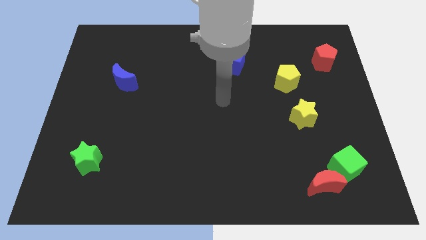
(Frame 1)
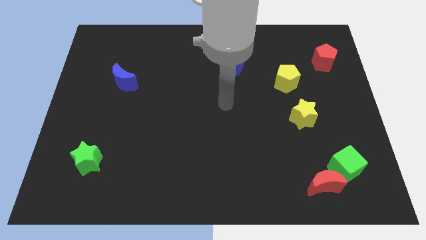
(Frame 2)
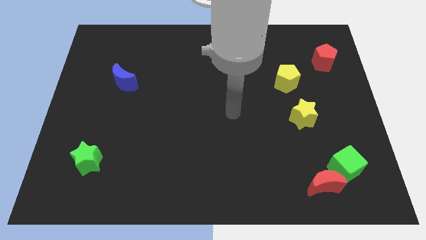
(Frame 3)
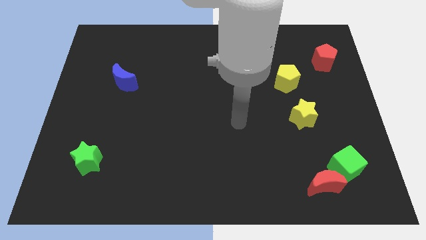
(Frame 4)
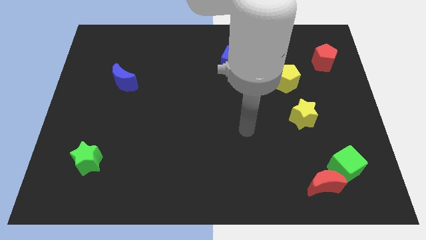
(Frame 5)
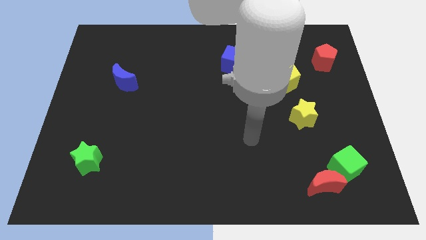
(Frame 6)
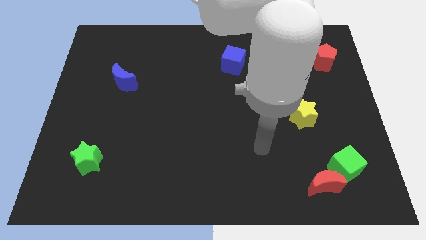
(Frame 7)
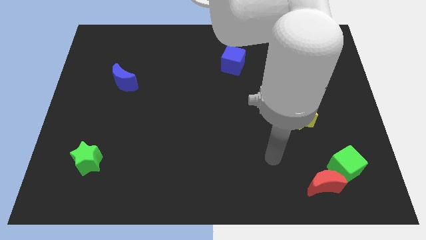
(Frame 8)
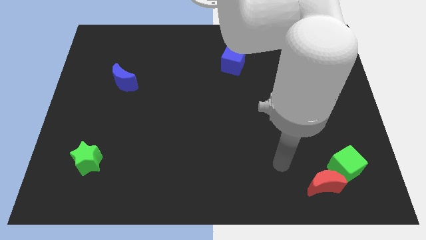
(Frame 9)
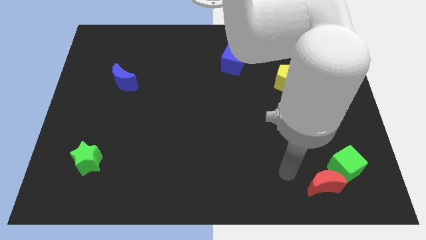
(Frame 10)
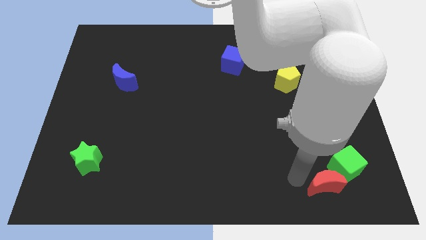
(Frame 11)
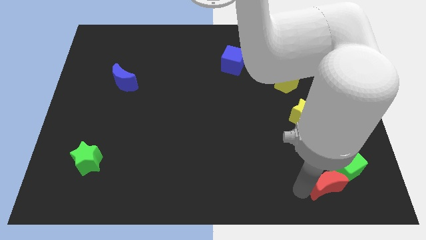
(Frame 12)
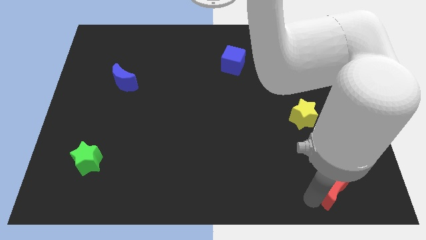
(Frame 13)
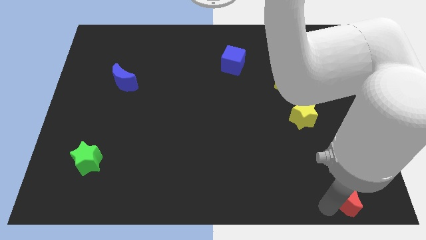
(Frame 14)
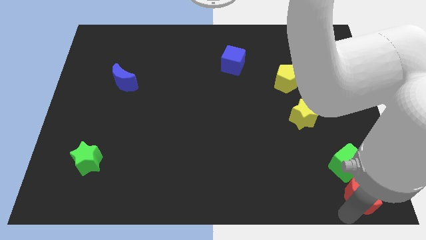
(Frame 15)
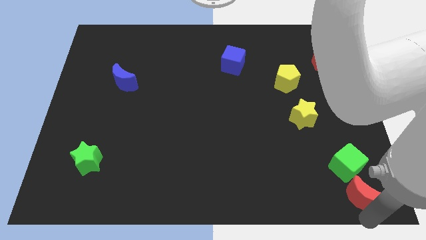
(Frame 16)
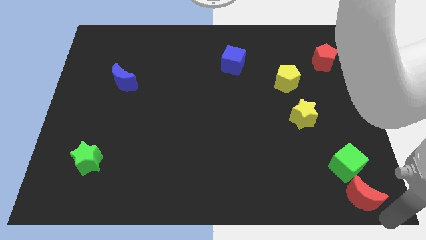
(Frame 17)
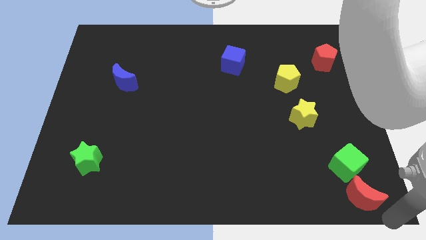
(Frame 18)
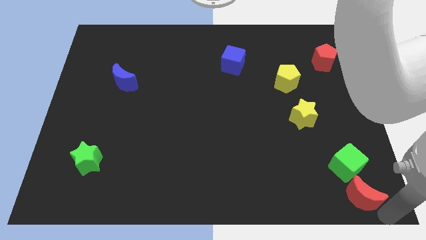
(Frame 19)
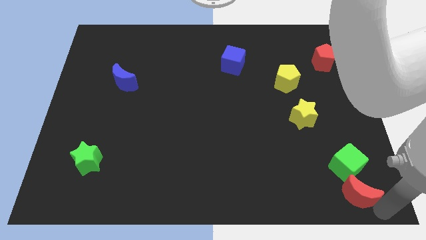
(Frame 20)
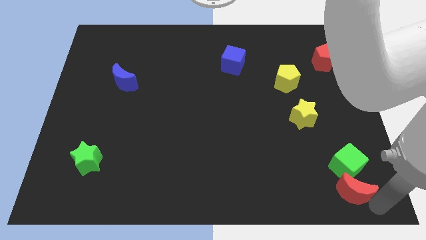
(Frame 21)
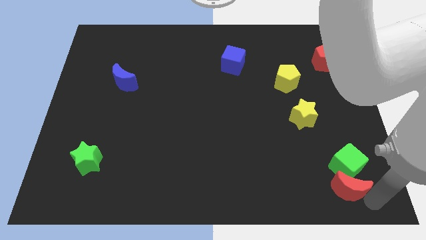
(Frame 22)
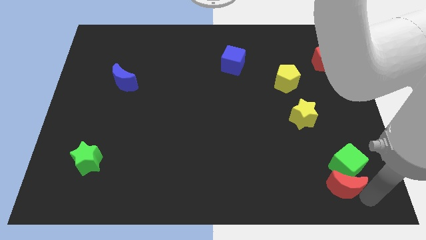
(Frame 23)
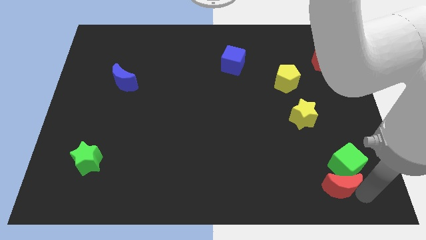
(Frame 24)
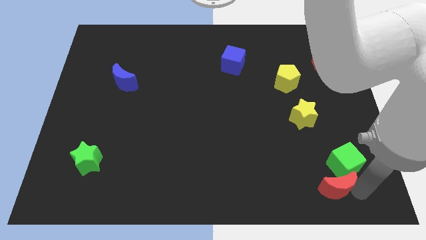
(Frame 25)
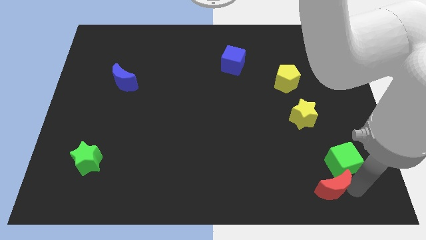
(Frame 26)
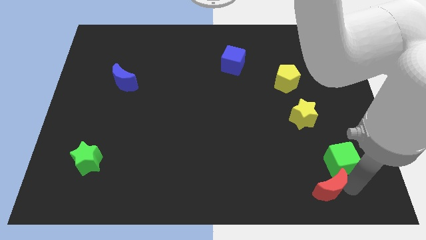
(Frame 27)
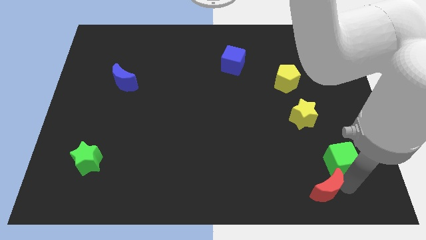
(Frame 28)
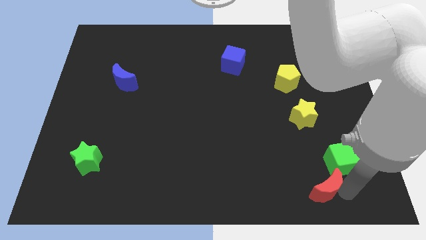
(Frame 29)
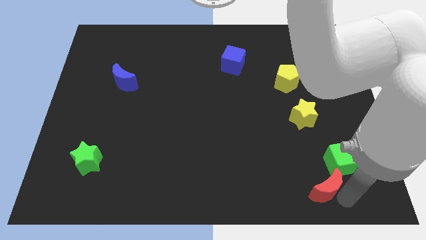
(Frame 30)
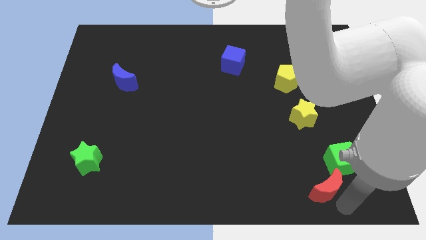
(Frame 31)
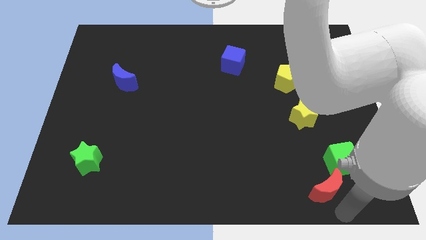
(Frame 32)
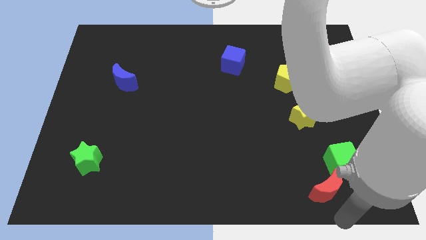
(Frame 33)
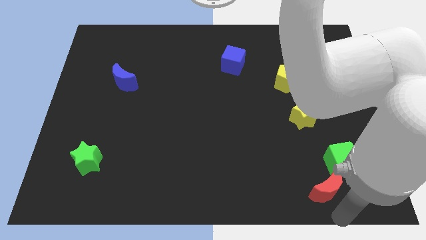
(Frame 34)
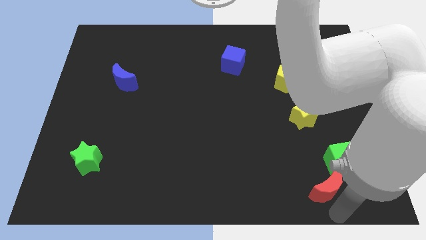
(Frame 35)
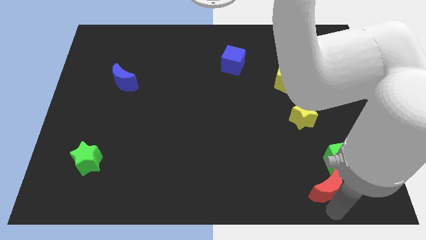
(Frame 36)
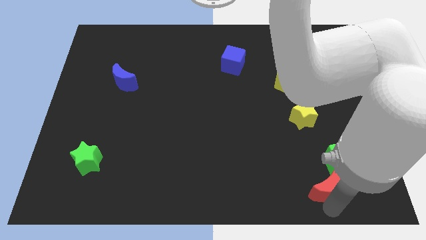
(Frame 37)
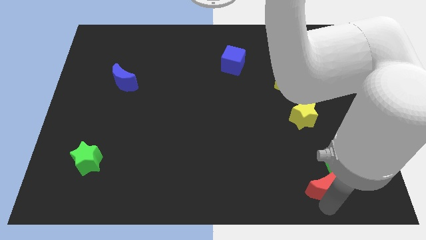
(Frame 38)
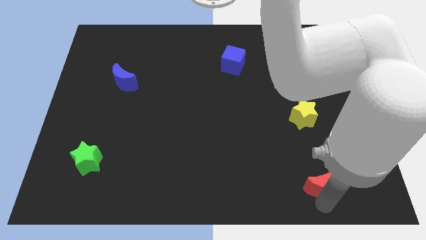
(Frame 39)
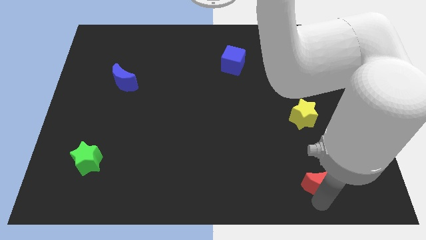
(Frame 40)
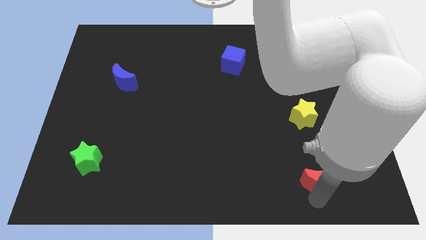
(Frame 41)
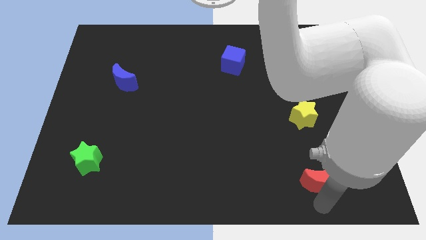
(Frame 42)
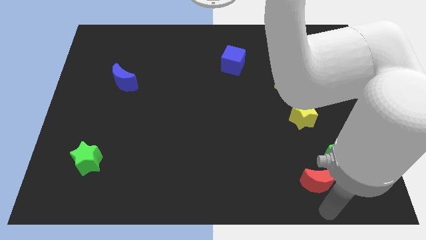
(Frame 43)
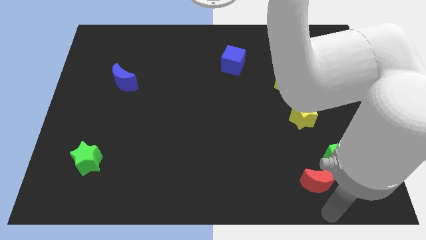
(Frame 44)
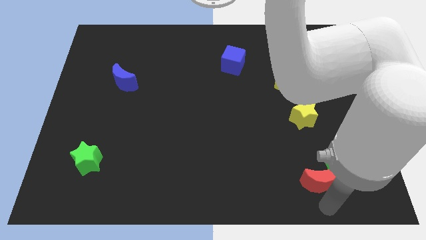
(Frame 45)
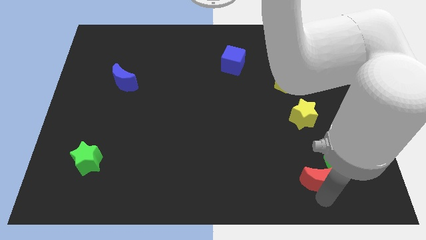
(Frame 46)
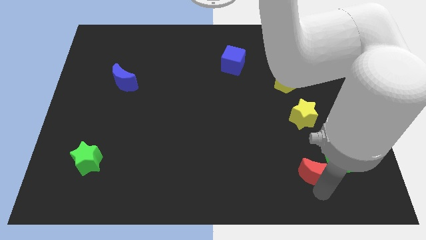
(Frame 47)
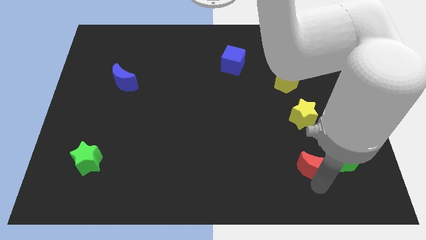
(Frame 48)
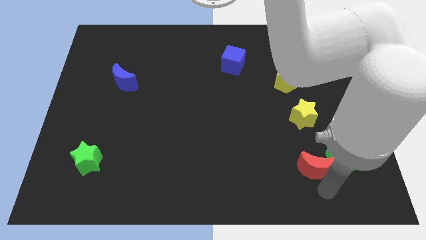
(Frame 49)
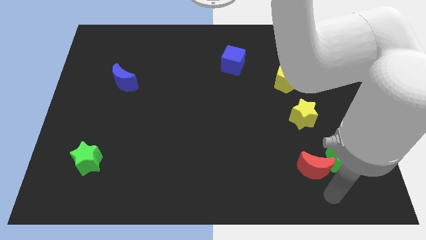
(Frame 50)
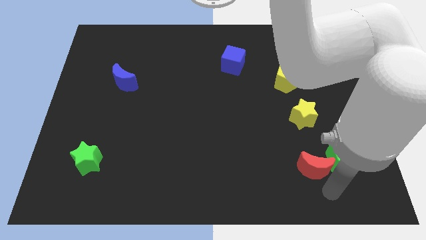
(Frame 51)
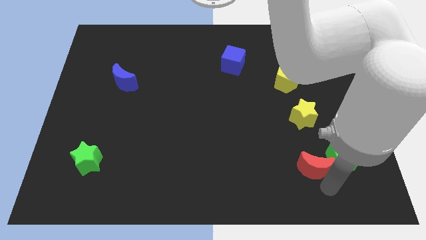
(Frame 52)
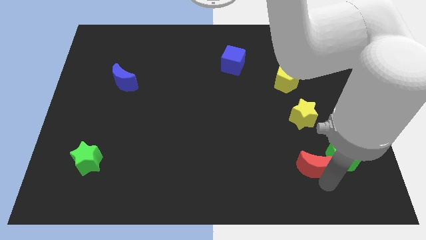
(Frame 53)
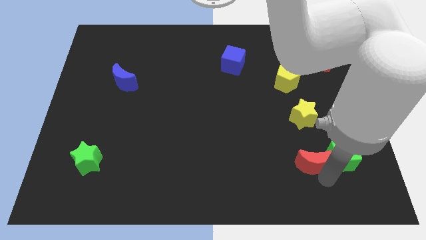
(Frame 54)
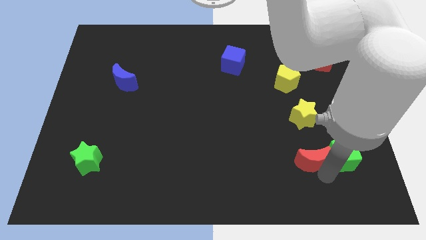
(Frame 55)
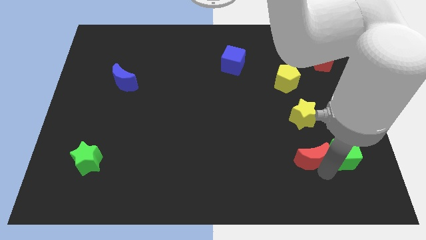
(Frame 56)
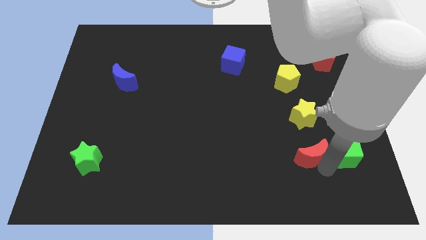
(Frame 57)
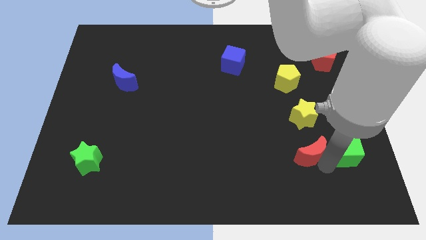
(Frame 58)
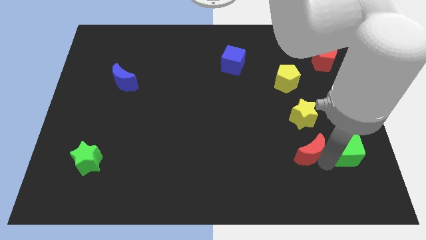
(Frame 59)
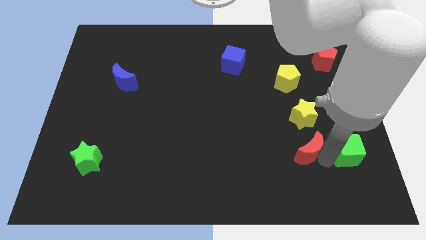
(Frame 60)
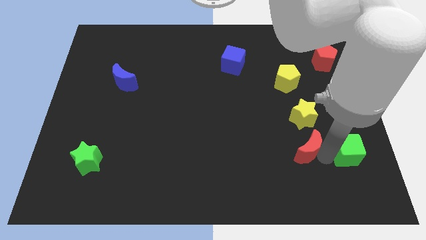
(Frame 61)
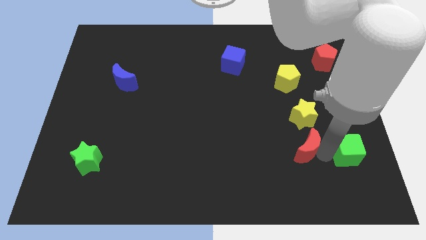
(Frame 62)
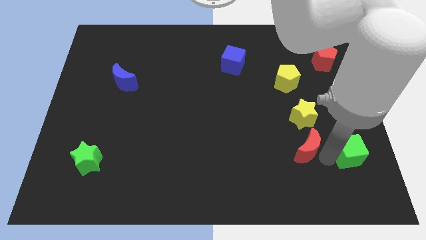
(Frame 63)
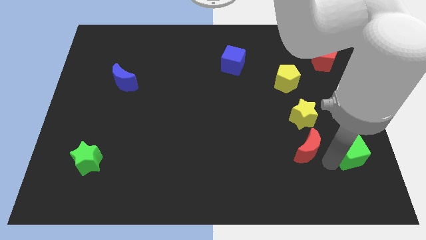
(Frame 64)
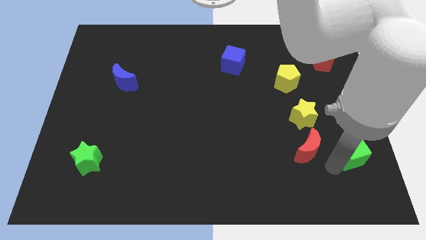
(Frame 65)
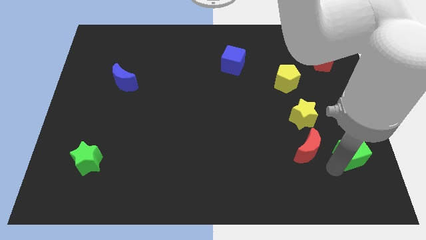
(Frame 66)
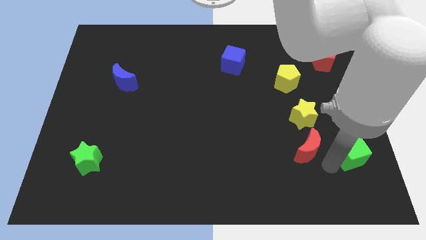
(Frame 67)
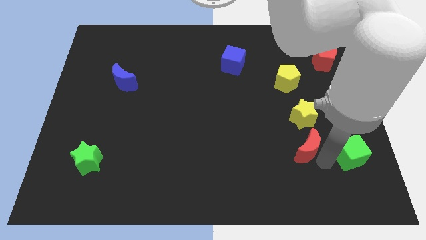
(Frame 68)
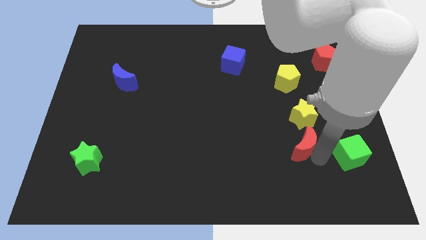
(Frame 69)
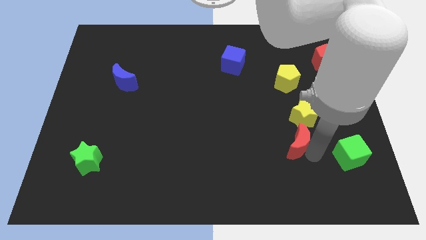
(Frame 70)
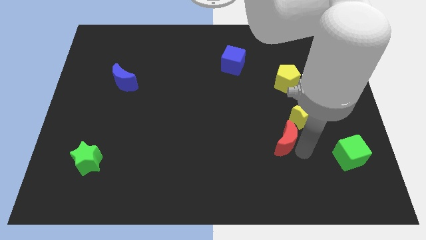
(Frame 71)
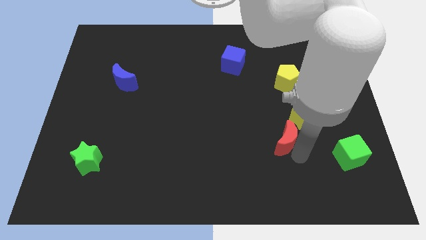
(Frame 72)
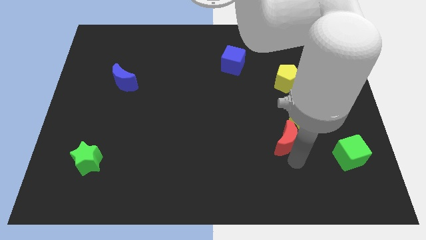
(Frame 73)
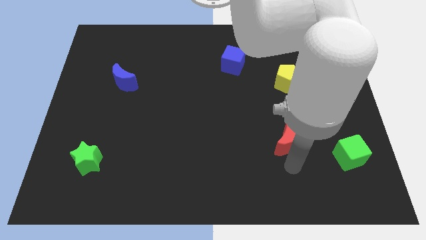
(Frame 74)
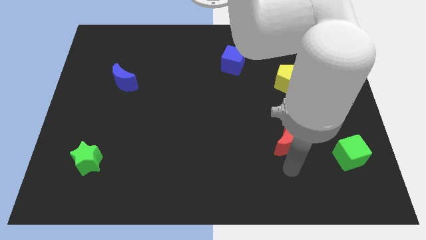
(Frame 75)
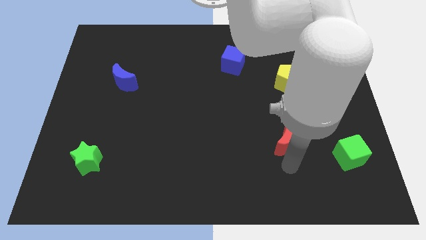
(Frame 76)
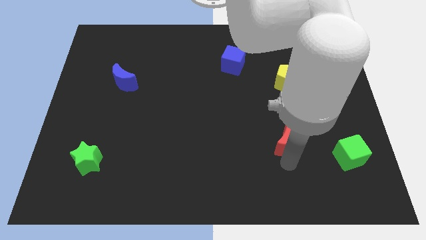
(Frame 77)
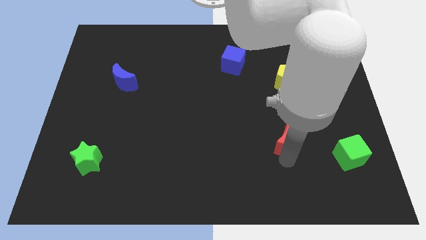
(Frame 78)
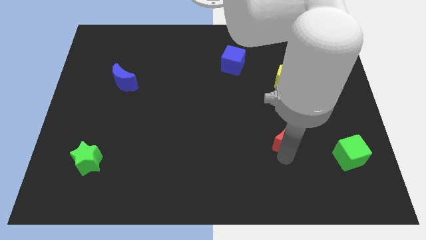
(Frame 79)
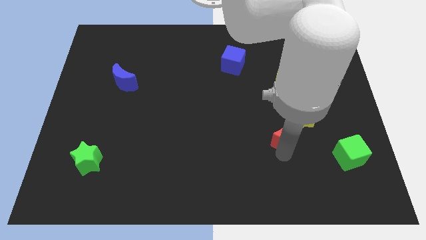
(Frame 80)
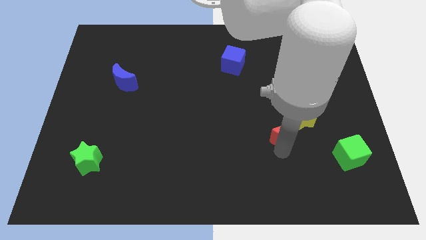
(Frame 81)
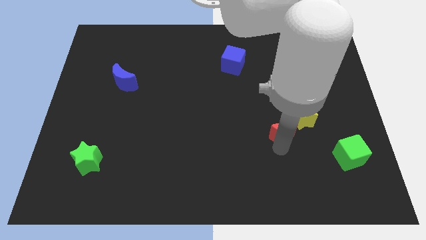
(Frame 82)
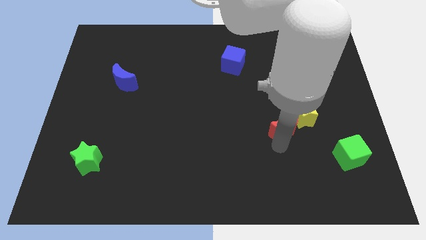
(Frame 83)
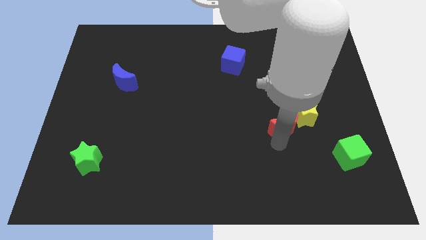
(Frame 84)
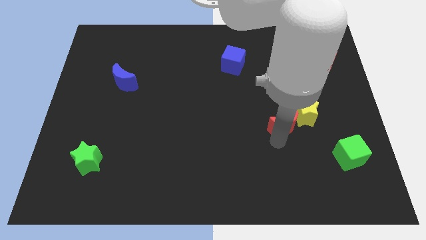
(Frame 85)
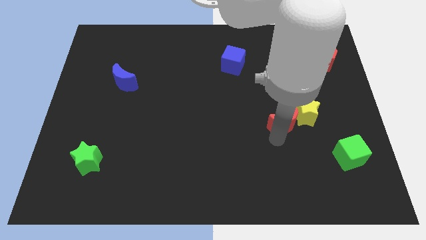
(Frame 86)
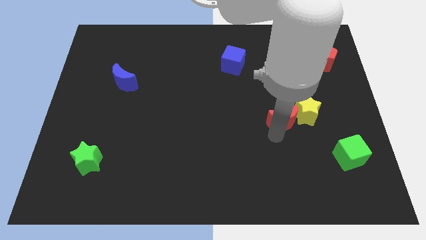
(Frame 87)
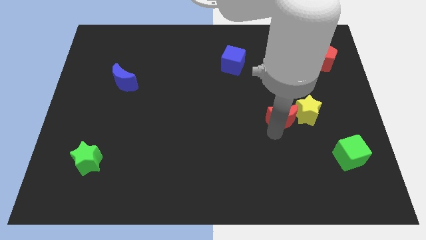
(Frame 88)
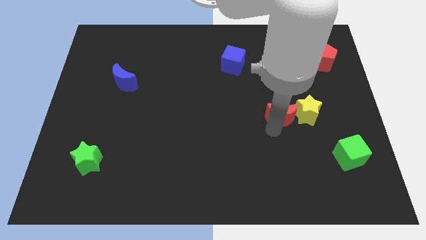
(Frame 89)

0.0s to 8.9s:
push the red moon diagonally up and to the left of the yellow star
